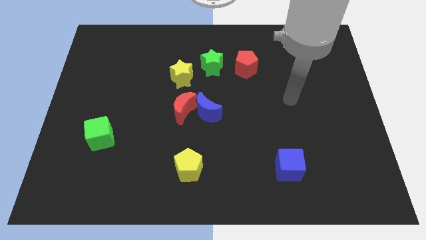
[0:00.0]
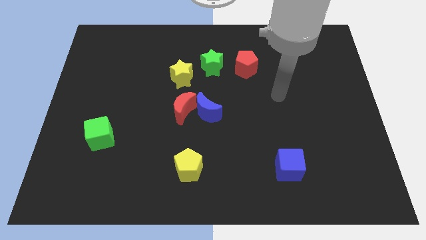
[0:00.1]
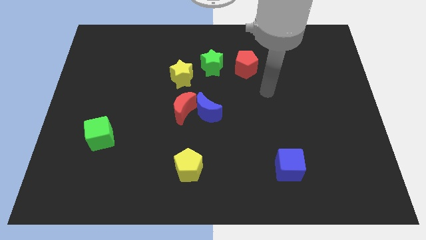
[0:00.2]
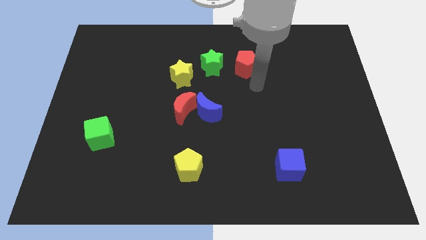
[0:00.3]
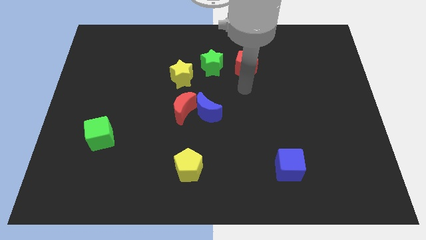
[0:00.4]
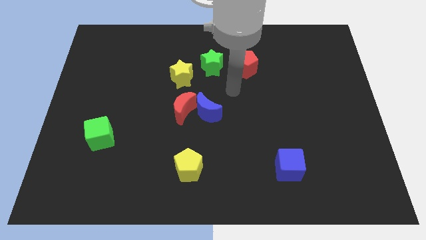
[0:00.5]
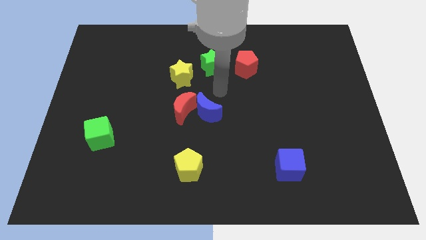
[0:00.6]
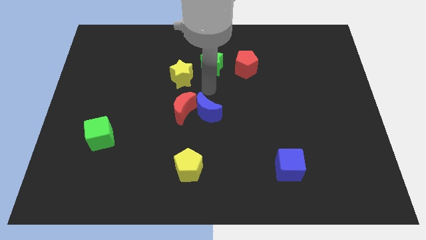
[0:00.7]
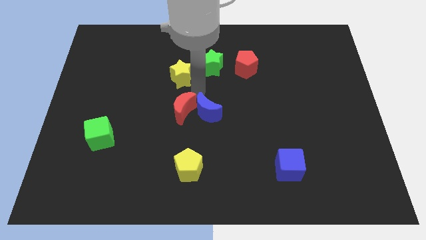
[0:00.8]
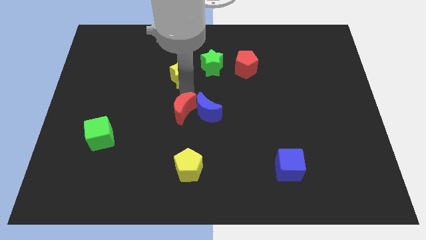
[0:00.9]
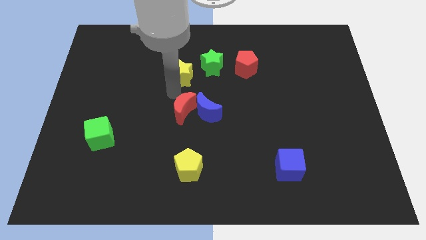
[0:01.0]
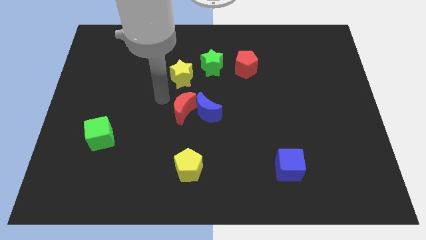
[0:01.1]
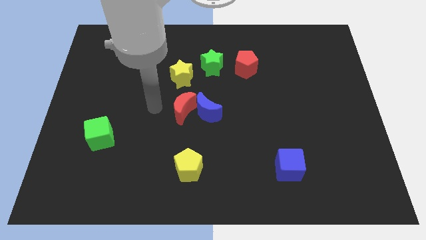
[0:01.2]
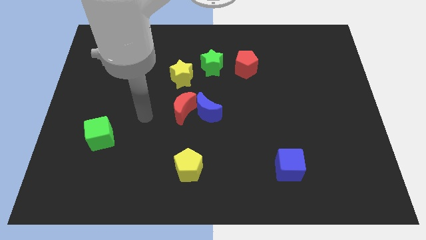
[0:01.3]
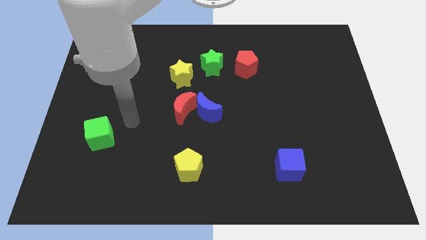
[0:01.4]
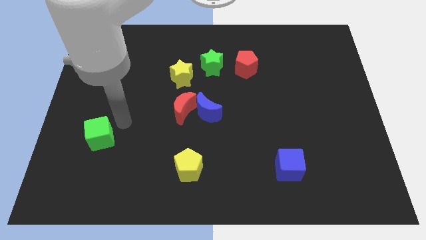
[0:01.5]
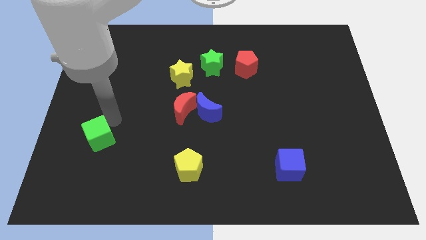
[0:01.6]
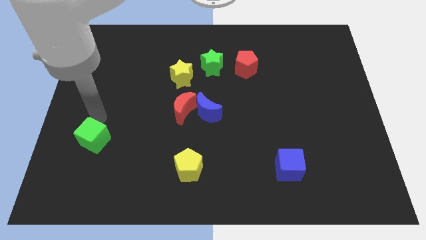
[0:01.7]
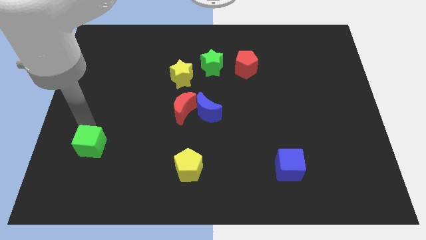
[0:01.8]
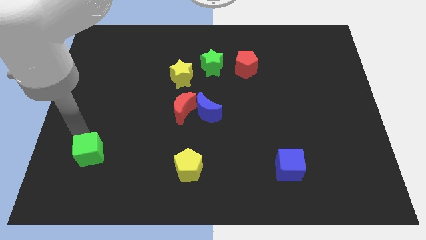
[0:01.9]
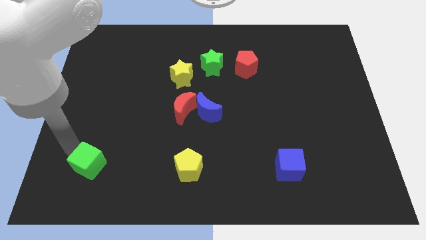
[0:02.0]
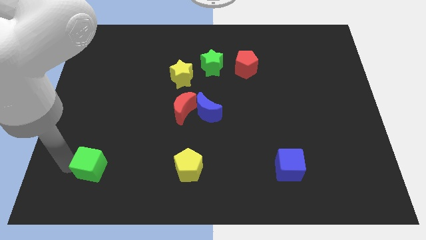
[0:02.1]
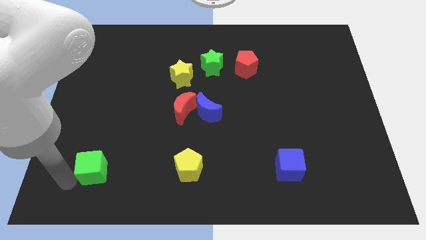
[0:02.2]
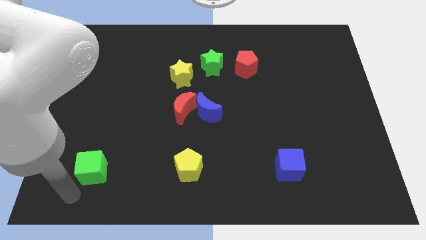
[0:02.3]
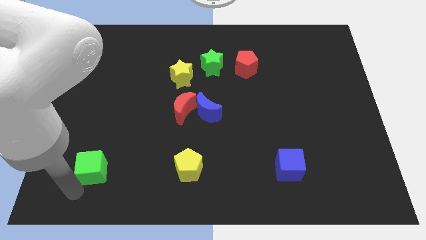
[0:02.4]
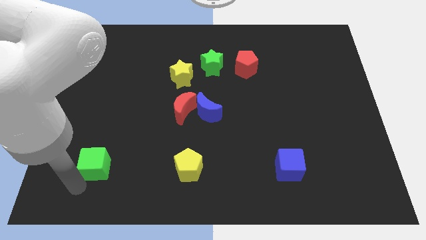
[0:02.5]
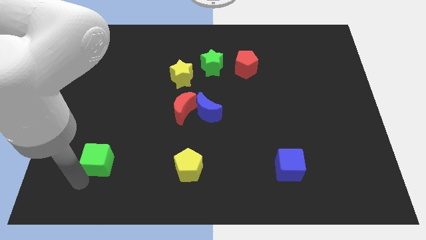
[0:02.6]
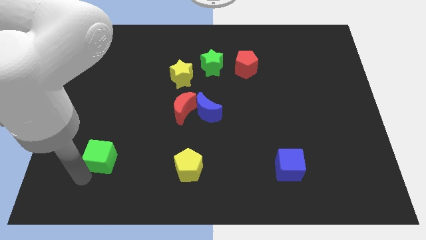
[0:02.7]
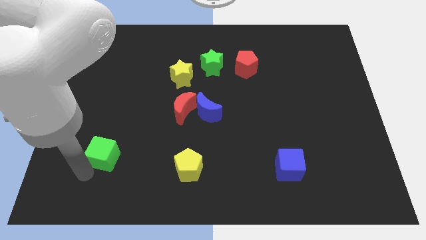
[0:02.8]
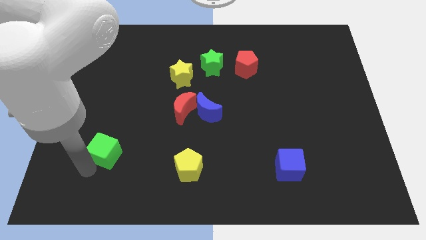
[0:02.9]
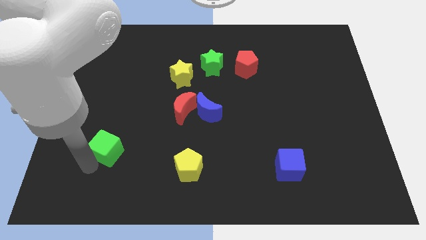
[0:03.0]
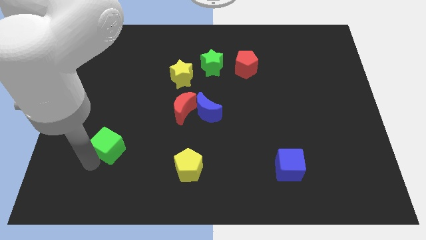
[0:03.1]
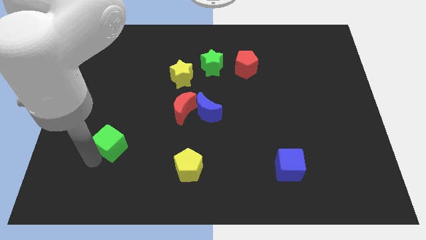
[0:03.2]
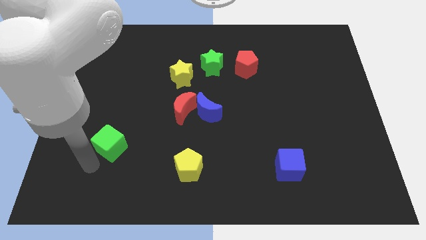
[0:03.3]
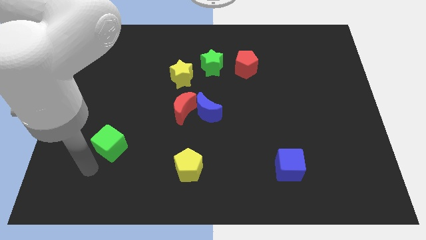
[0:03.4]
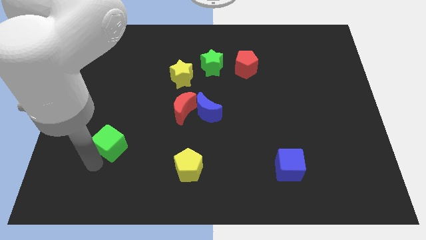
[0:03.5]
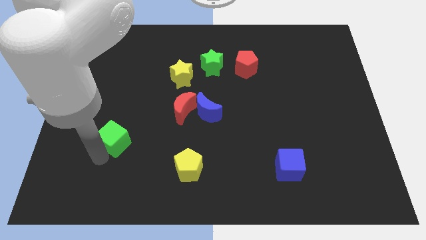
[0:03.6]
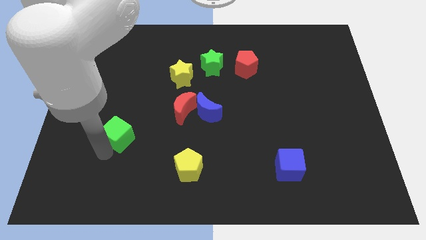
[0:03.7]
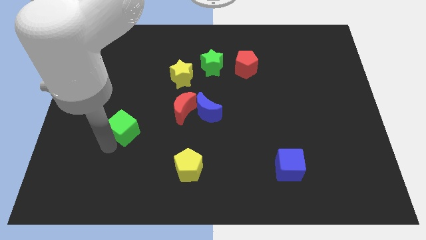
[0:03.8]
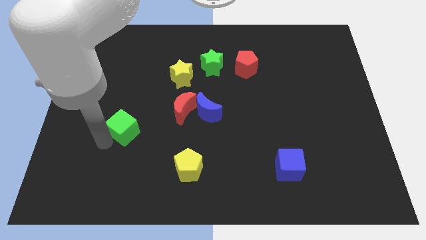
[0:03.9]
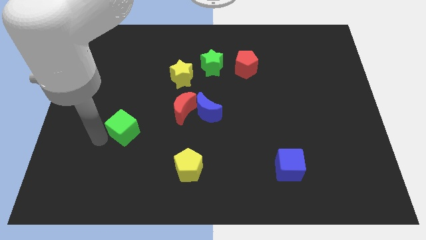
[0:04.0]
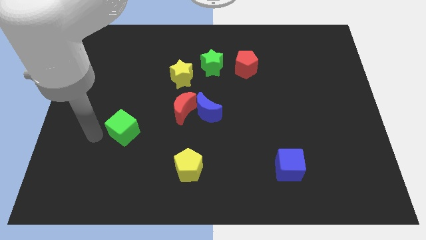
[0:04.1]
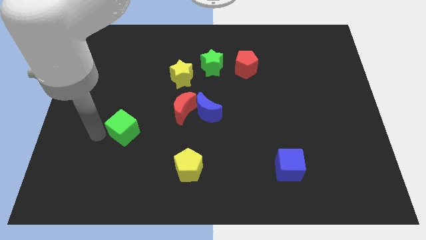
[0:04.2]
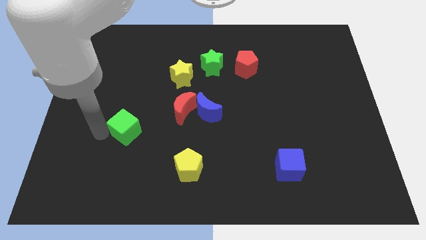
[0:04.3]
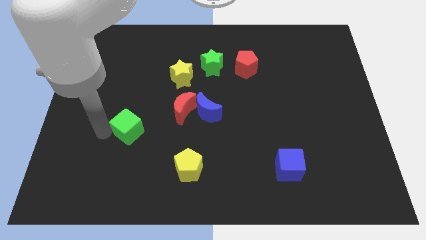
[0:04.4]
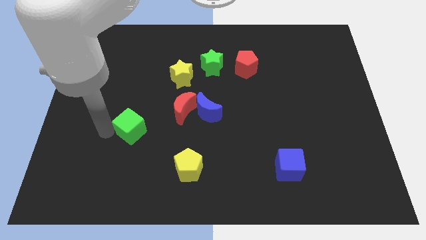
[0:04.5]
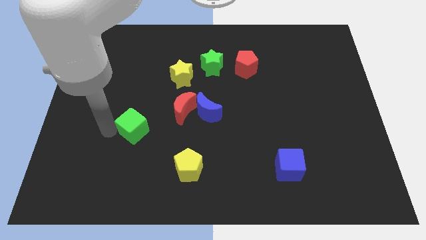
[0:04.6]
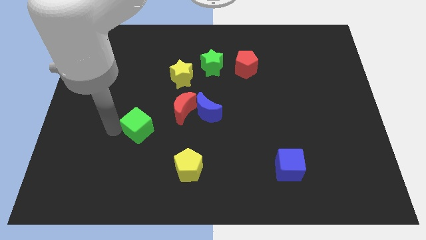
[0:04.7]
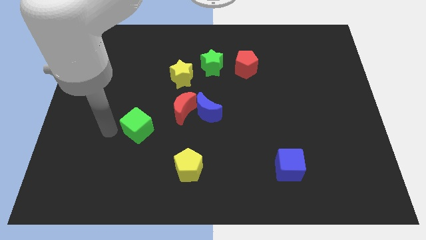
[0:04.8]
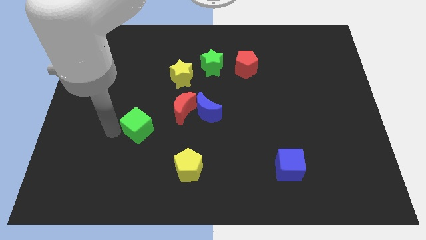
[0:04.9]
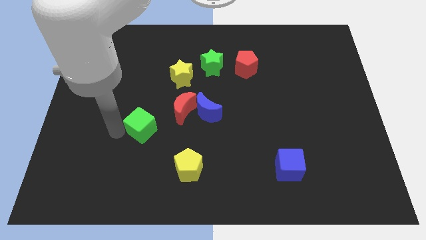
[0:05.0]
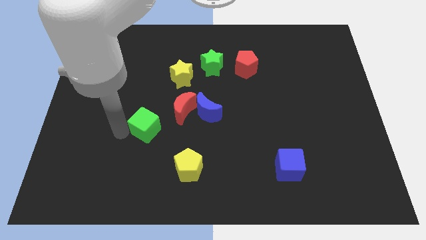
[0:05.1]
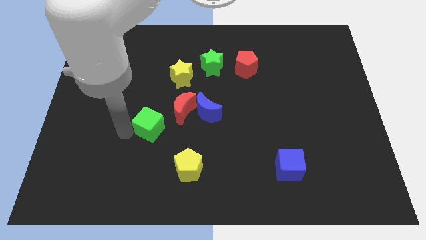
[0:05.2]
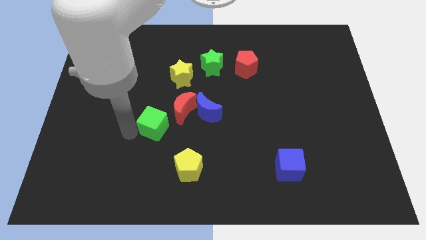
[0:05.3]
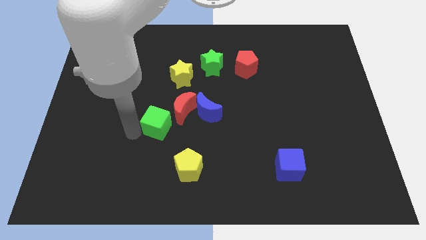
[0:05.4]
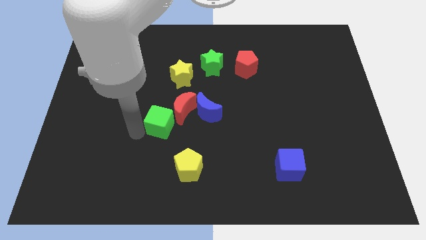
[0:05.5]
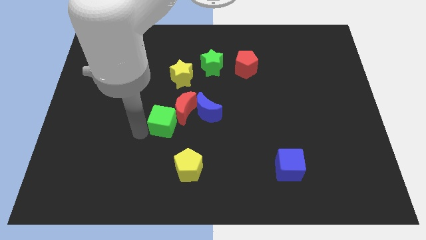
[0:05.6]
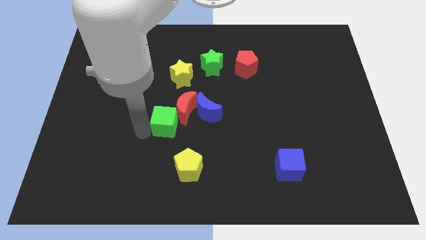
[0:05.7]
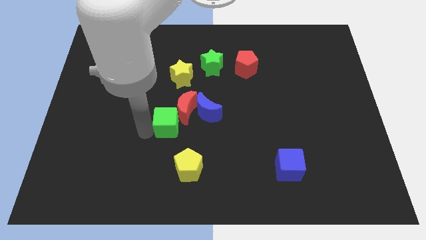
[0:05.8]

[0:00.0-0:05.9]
move the green cube to the middle of the board

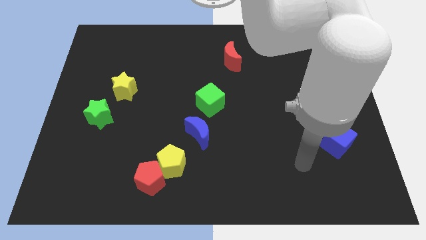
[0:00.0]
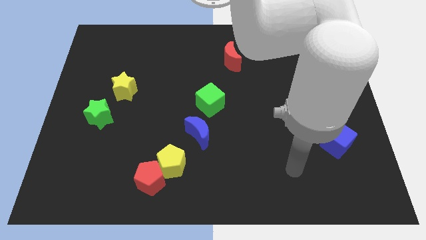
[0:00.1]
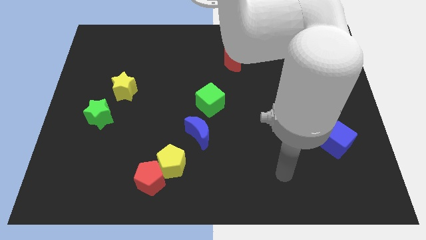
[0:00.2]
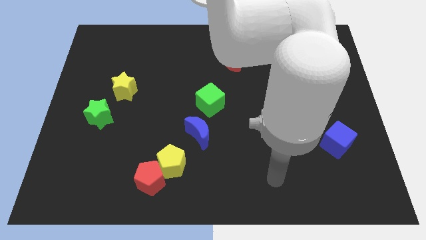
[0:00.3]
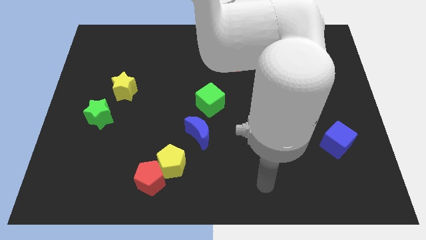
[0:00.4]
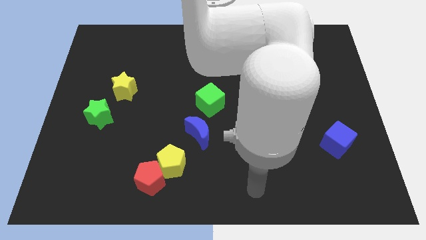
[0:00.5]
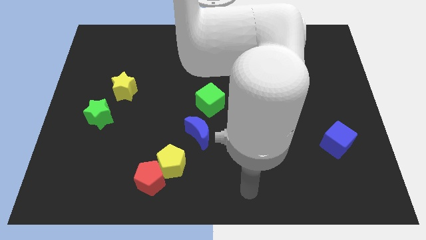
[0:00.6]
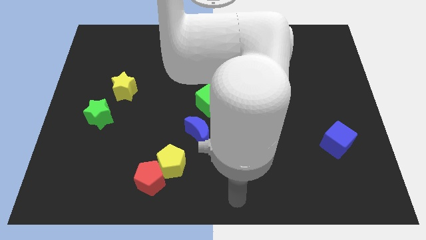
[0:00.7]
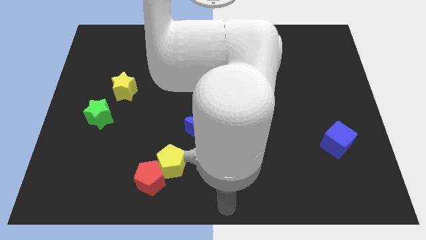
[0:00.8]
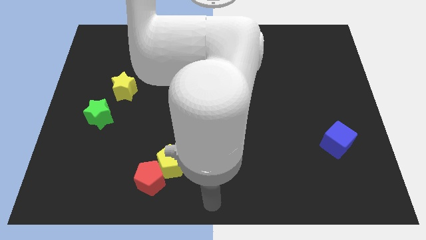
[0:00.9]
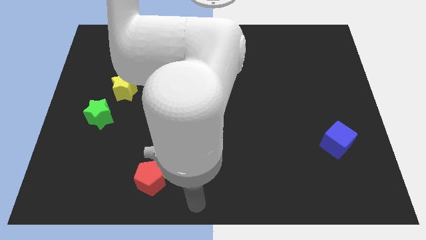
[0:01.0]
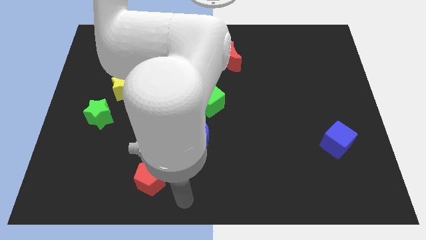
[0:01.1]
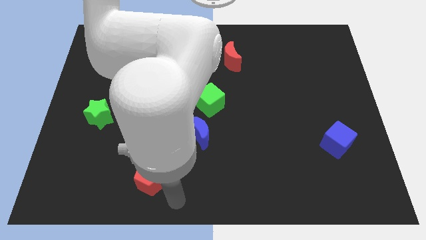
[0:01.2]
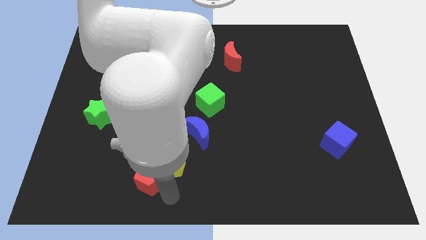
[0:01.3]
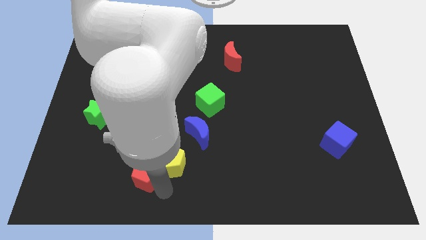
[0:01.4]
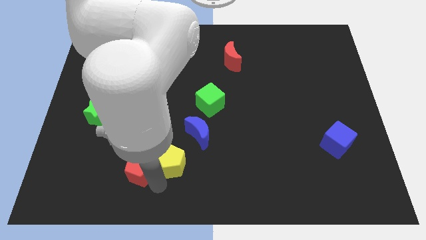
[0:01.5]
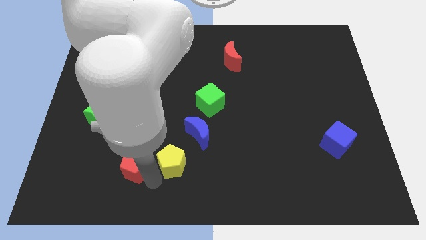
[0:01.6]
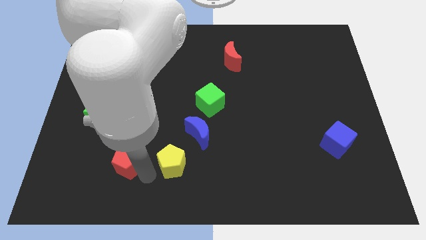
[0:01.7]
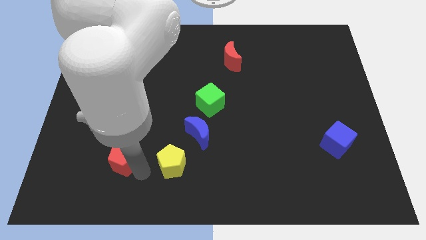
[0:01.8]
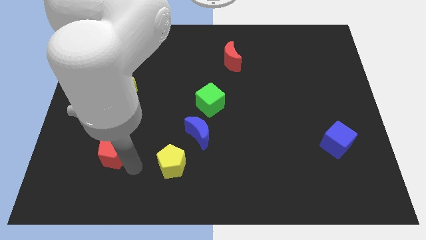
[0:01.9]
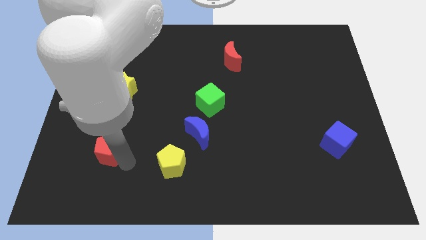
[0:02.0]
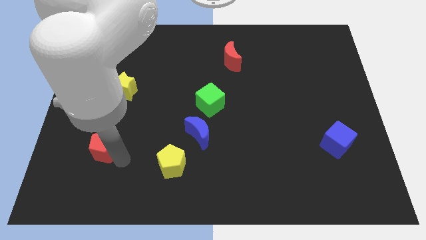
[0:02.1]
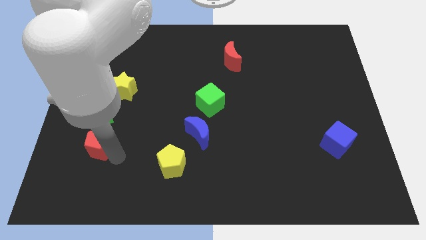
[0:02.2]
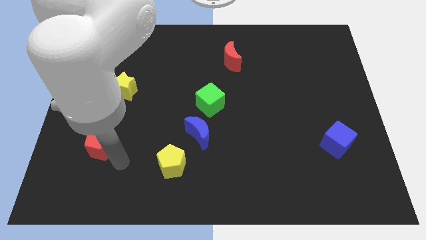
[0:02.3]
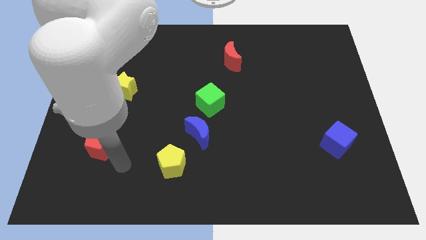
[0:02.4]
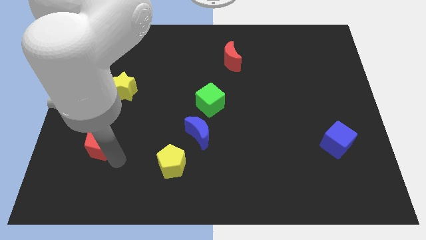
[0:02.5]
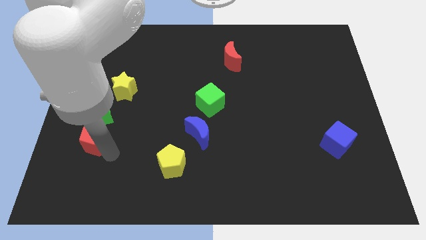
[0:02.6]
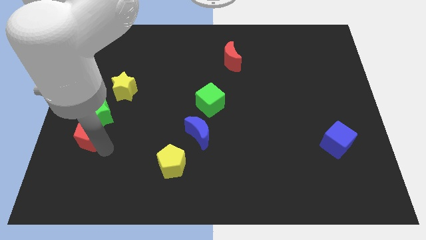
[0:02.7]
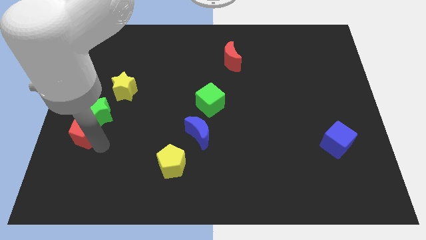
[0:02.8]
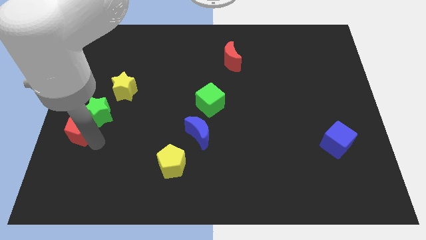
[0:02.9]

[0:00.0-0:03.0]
push the red pentagon to the left side
